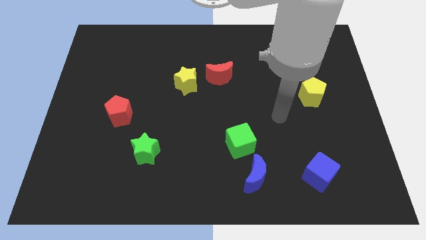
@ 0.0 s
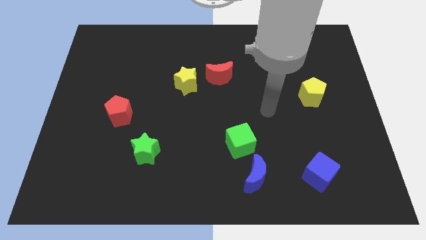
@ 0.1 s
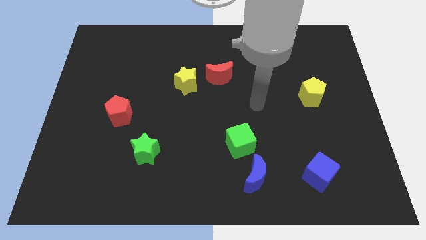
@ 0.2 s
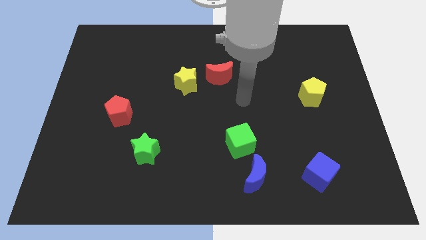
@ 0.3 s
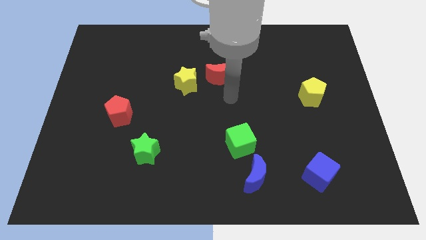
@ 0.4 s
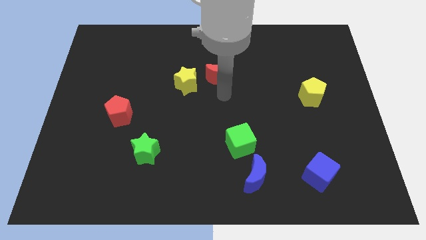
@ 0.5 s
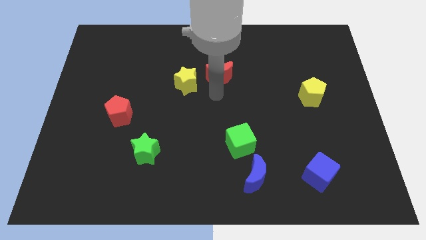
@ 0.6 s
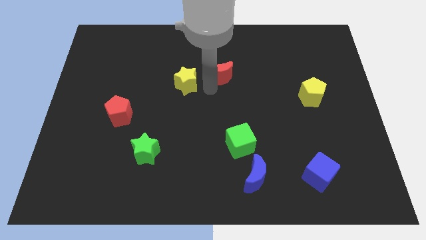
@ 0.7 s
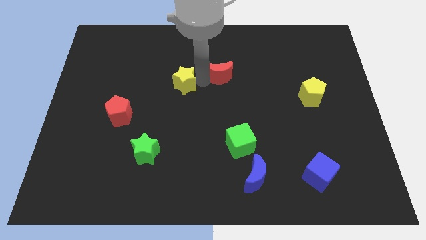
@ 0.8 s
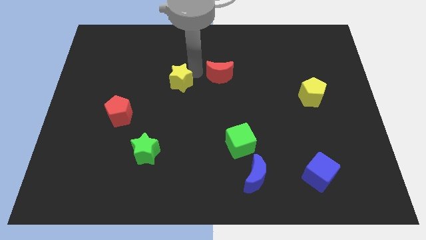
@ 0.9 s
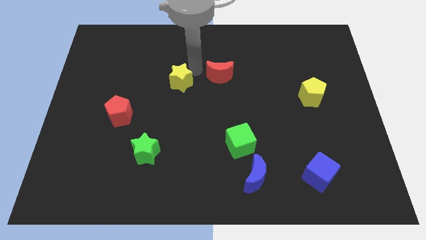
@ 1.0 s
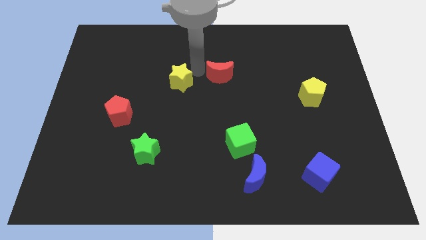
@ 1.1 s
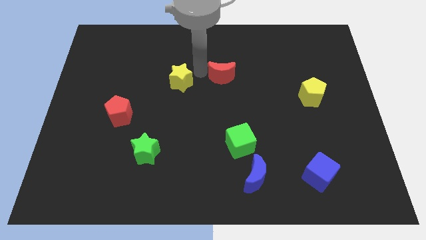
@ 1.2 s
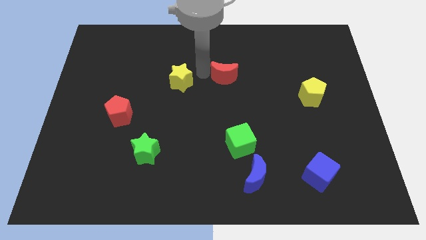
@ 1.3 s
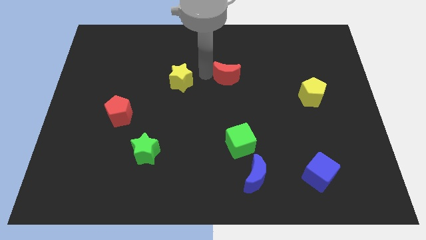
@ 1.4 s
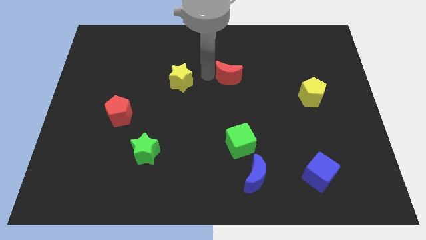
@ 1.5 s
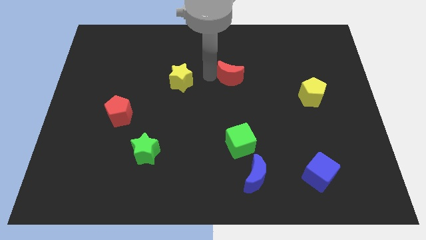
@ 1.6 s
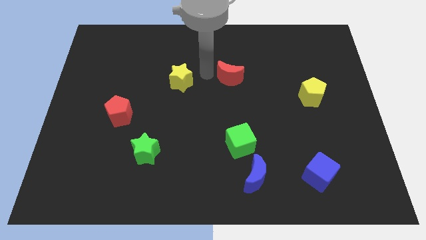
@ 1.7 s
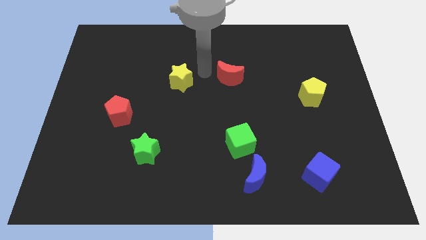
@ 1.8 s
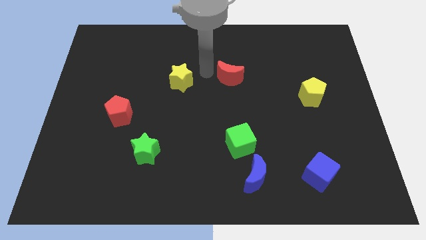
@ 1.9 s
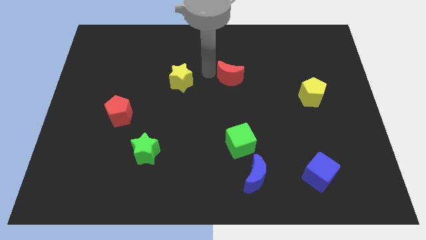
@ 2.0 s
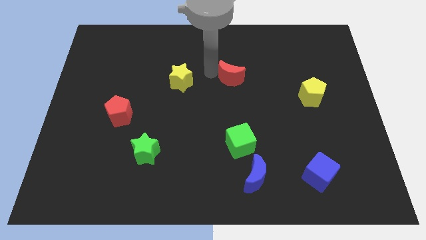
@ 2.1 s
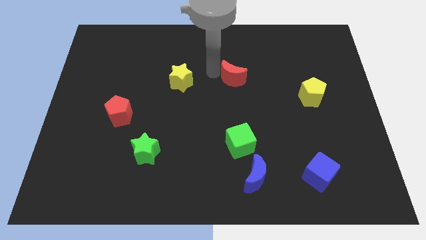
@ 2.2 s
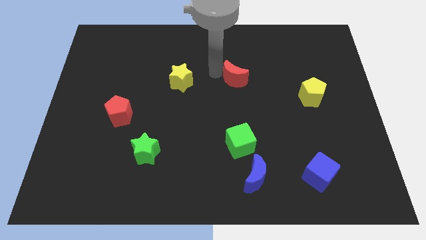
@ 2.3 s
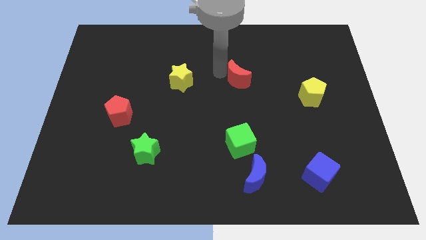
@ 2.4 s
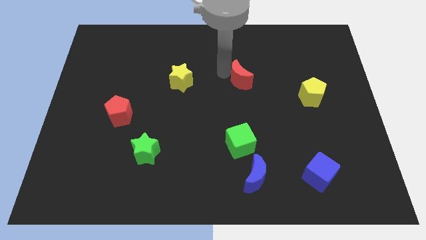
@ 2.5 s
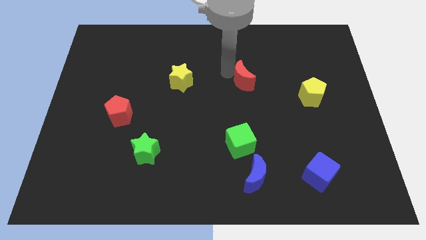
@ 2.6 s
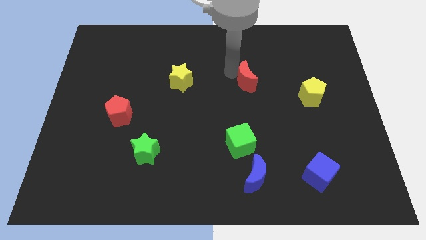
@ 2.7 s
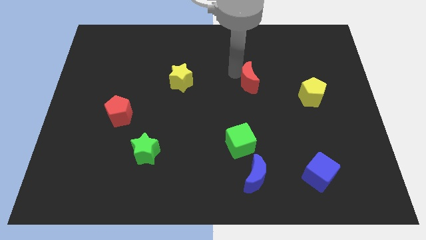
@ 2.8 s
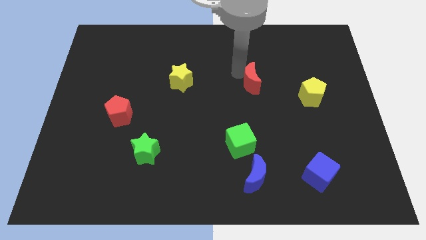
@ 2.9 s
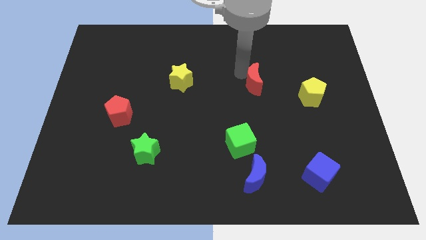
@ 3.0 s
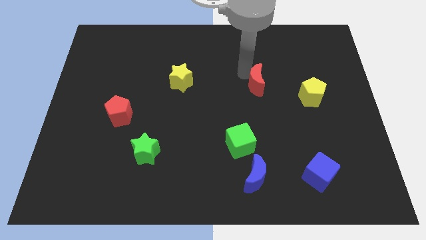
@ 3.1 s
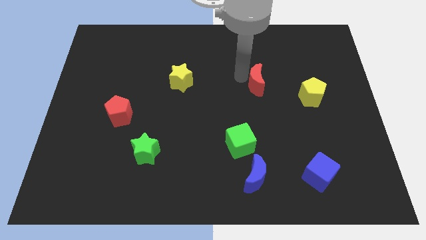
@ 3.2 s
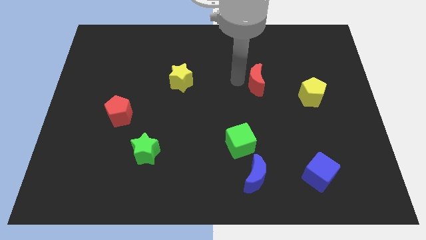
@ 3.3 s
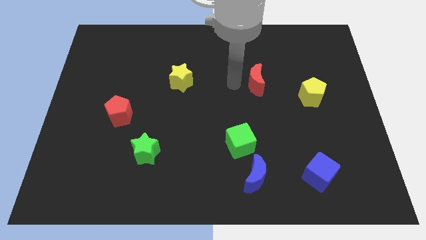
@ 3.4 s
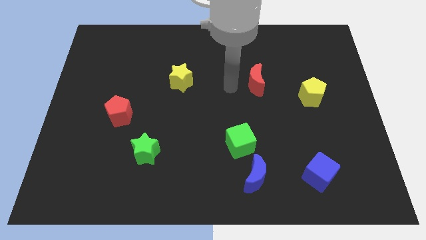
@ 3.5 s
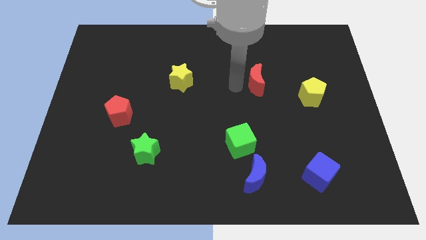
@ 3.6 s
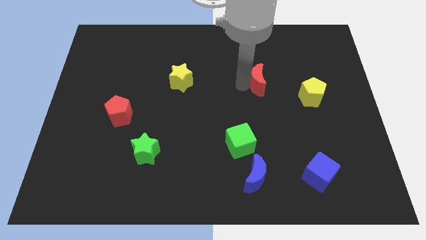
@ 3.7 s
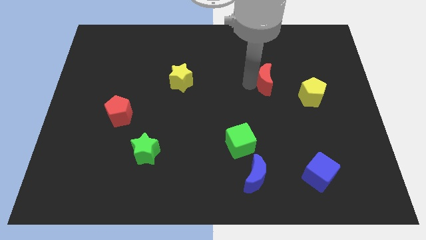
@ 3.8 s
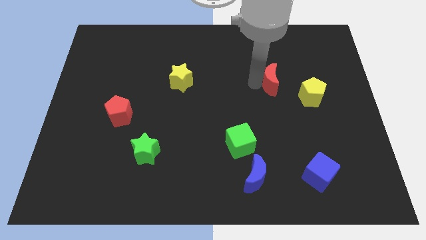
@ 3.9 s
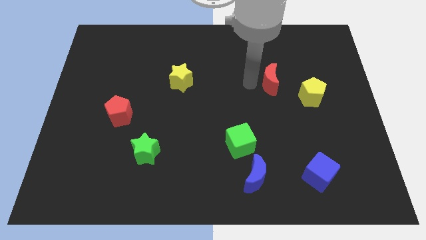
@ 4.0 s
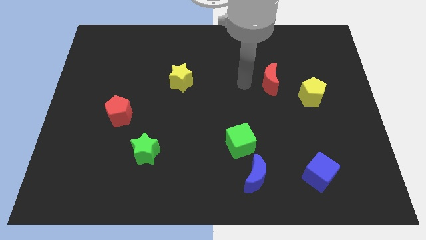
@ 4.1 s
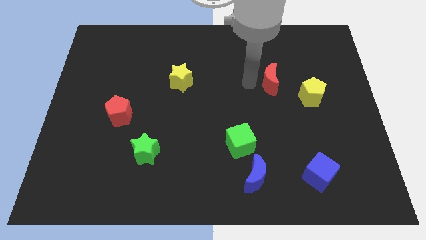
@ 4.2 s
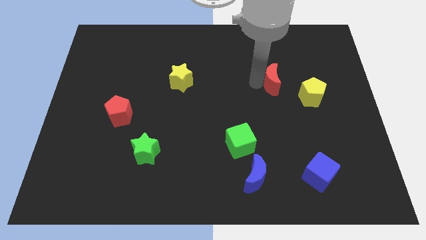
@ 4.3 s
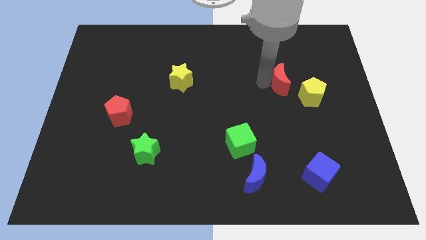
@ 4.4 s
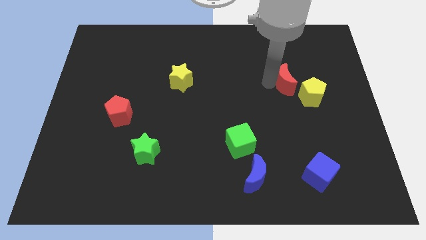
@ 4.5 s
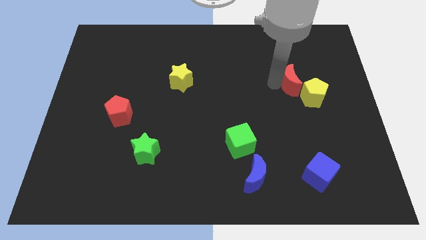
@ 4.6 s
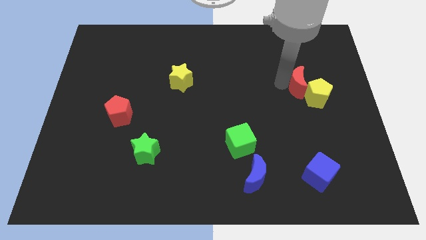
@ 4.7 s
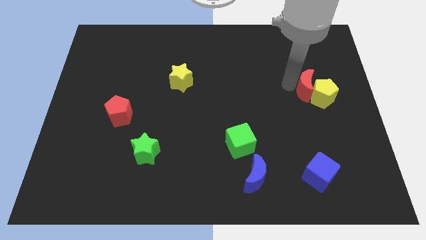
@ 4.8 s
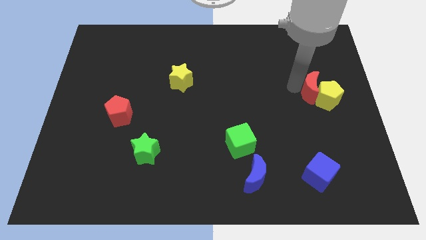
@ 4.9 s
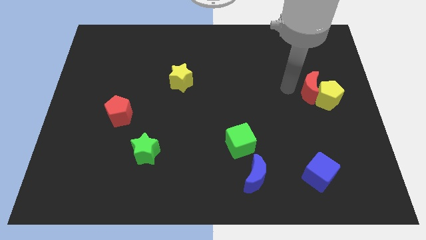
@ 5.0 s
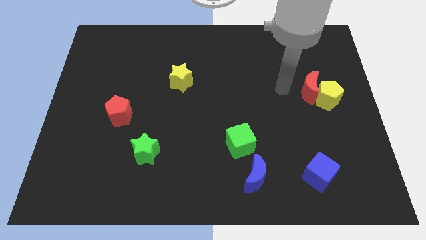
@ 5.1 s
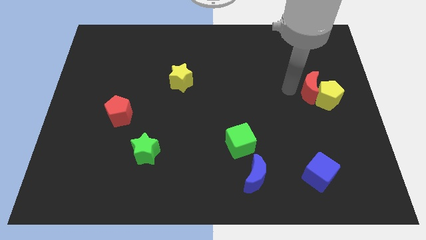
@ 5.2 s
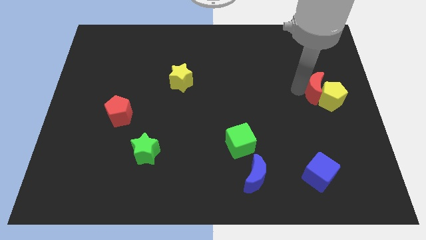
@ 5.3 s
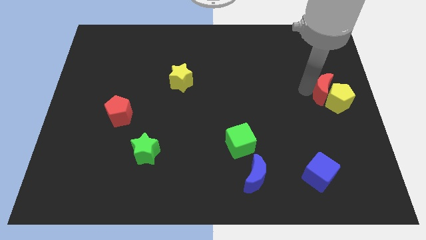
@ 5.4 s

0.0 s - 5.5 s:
put the red moon to the center right

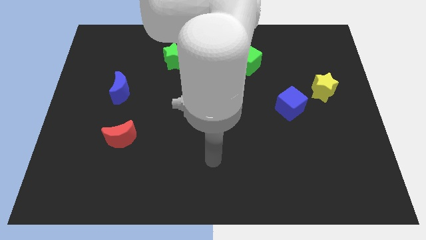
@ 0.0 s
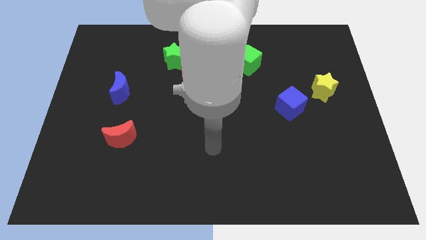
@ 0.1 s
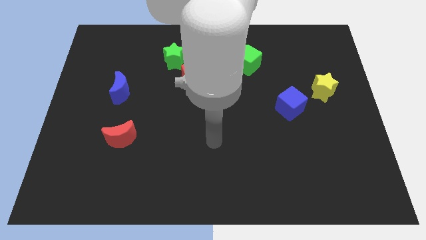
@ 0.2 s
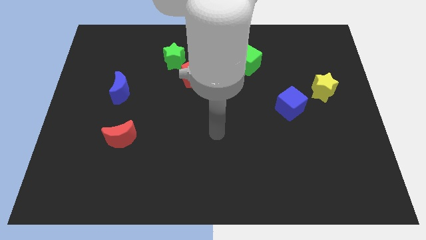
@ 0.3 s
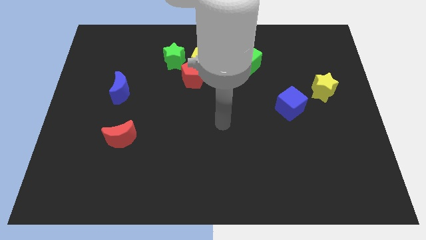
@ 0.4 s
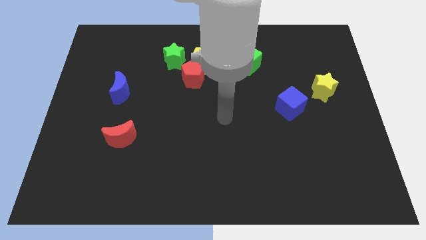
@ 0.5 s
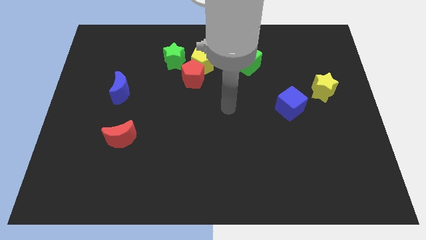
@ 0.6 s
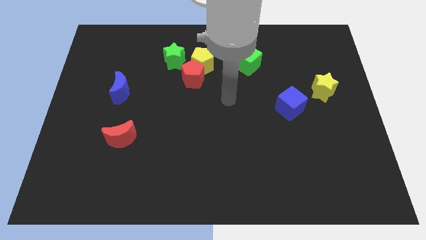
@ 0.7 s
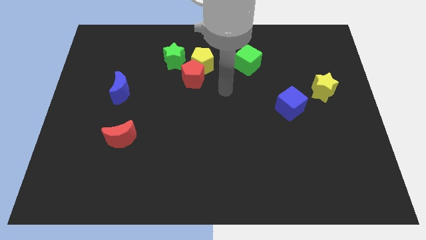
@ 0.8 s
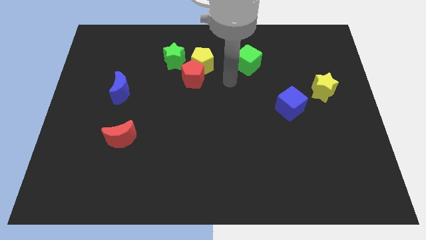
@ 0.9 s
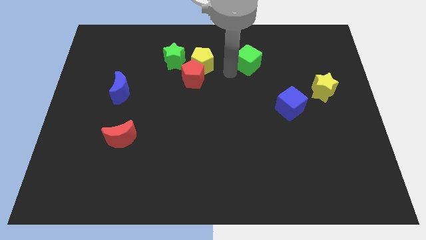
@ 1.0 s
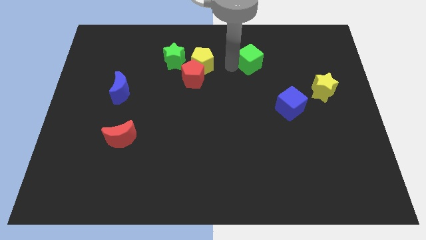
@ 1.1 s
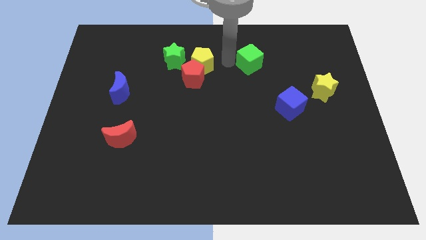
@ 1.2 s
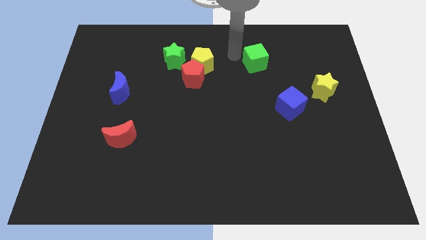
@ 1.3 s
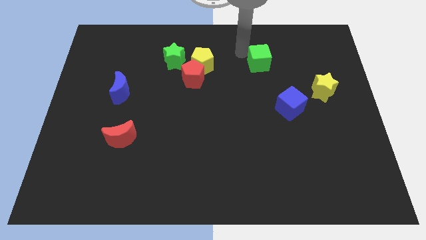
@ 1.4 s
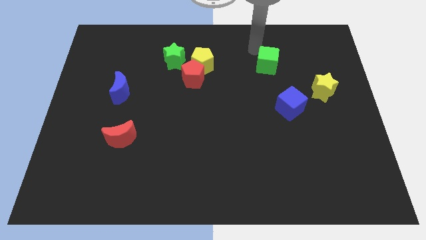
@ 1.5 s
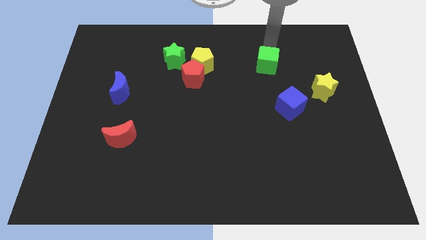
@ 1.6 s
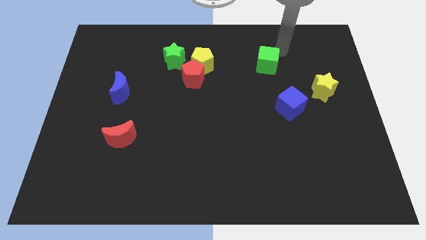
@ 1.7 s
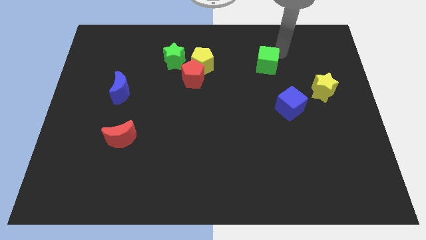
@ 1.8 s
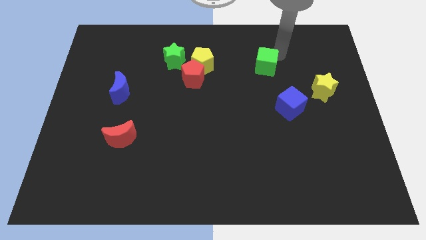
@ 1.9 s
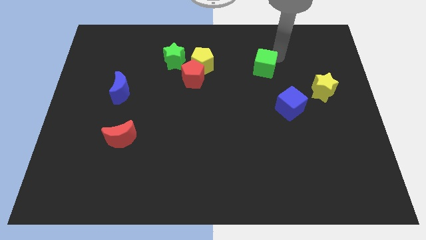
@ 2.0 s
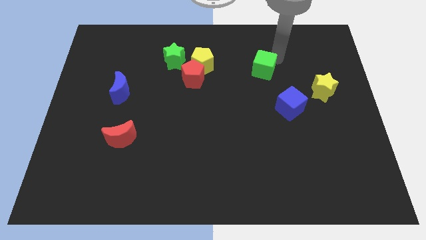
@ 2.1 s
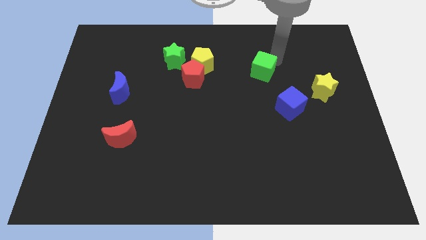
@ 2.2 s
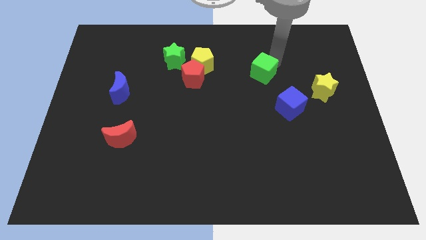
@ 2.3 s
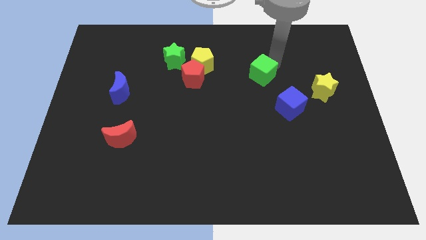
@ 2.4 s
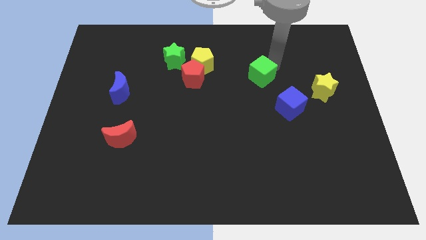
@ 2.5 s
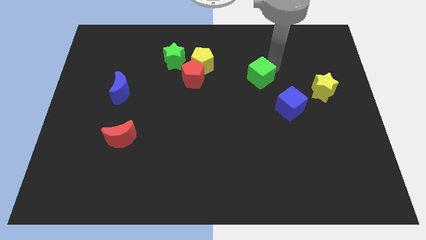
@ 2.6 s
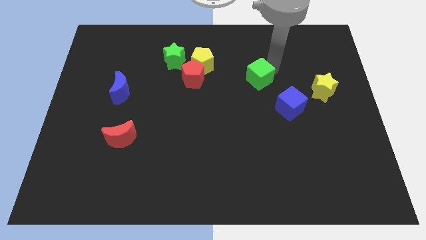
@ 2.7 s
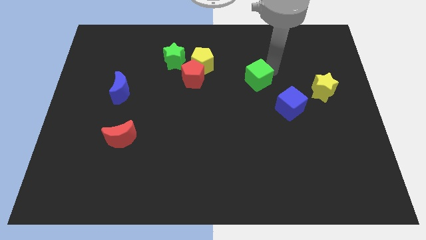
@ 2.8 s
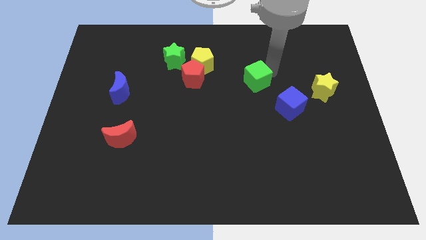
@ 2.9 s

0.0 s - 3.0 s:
slide the green cube to the middle
